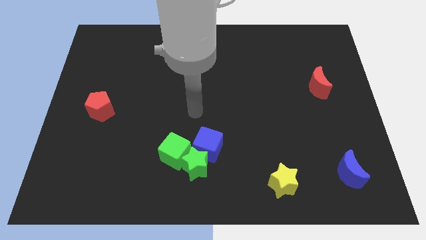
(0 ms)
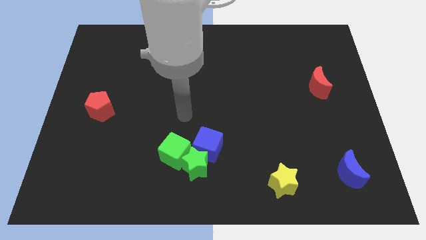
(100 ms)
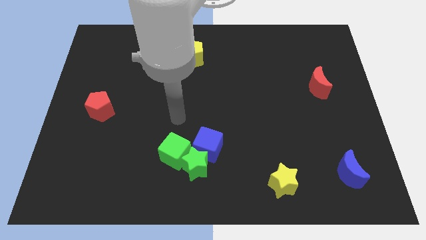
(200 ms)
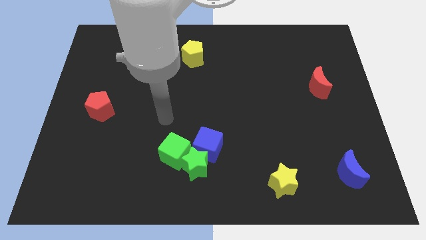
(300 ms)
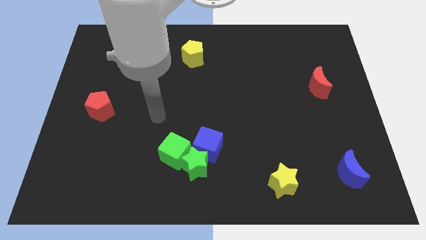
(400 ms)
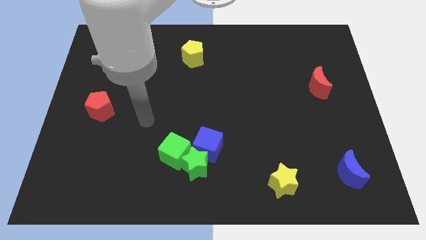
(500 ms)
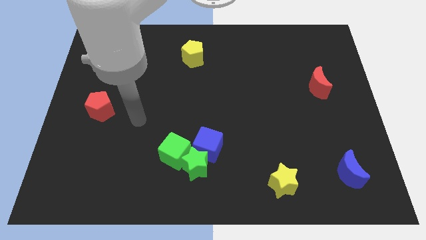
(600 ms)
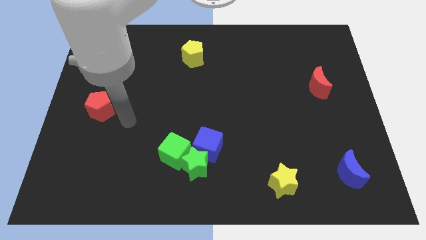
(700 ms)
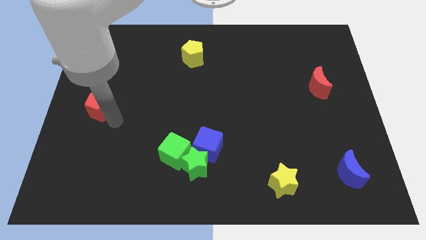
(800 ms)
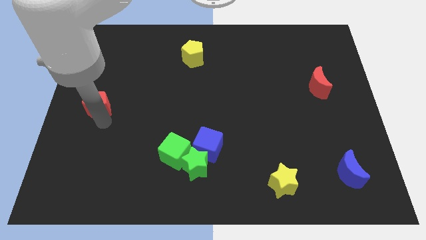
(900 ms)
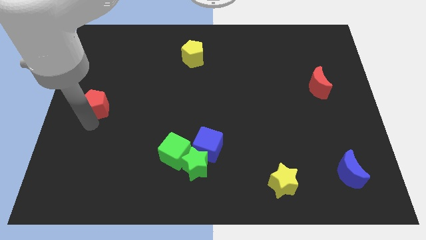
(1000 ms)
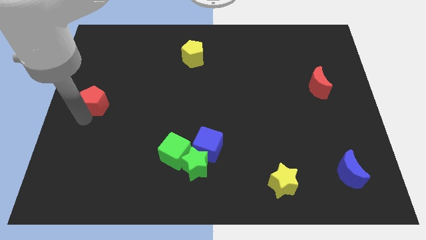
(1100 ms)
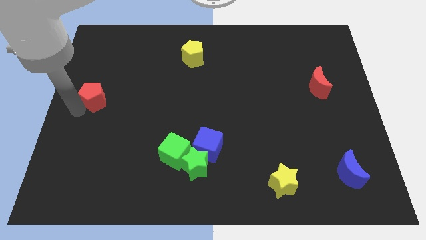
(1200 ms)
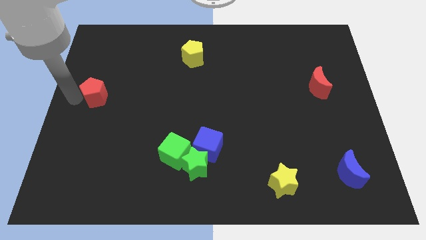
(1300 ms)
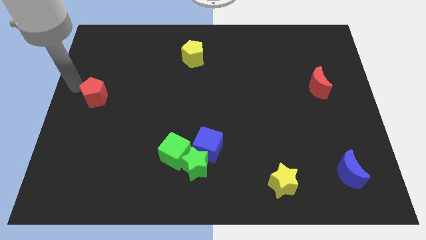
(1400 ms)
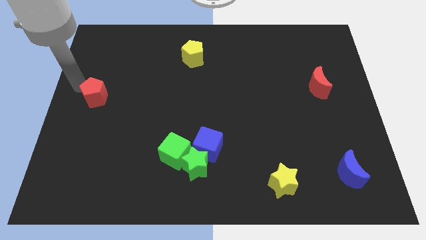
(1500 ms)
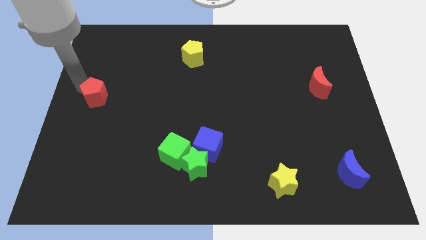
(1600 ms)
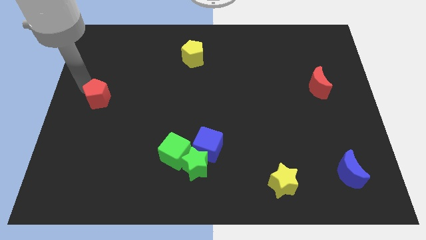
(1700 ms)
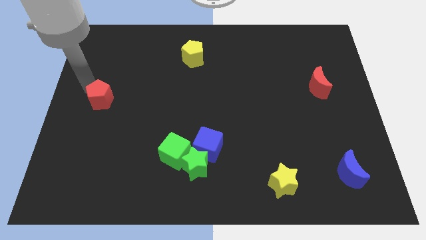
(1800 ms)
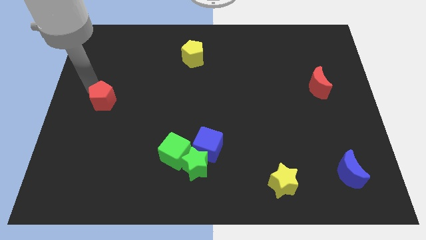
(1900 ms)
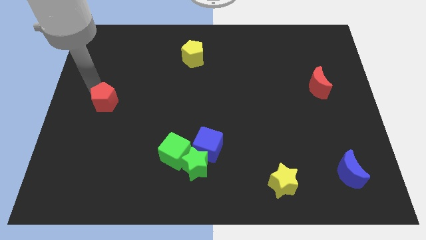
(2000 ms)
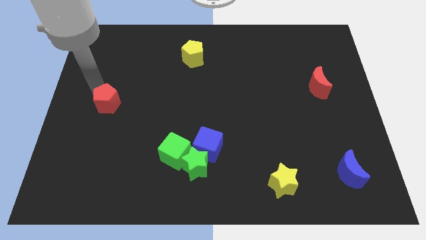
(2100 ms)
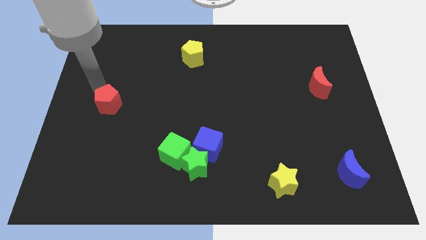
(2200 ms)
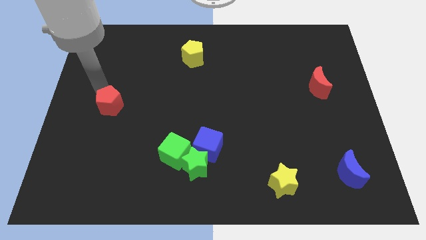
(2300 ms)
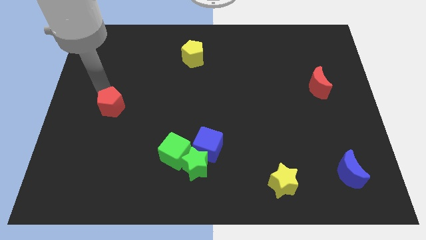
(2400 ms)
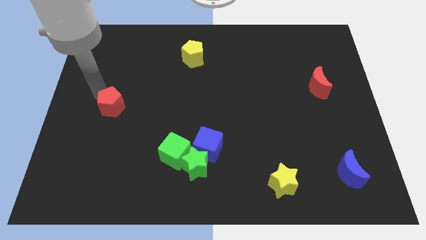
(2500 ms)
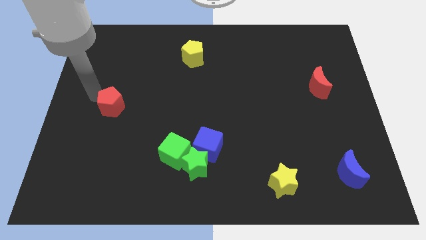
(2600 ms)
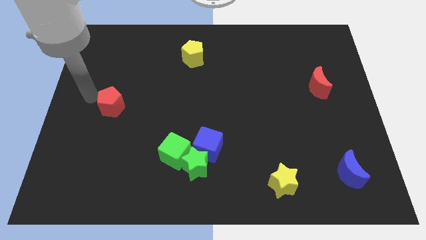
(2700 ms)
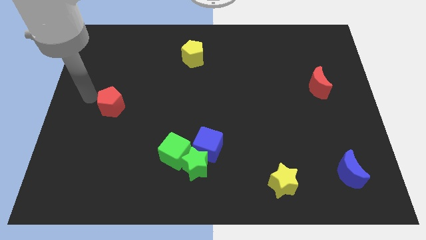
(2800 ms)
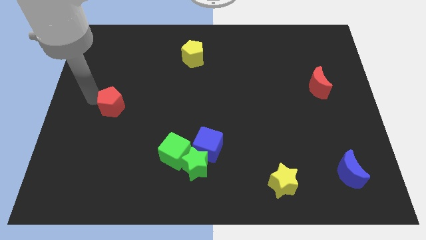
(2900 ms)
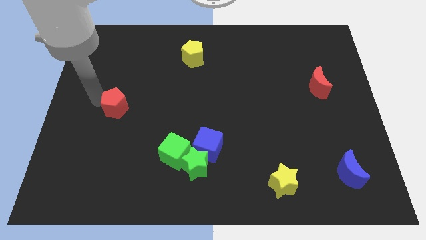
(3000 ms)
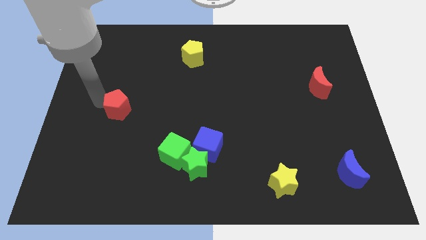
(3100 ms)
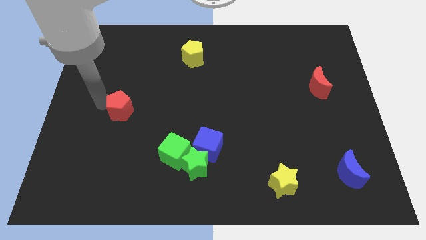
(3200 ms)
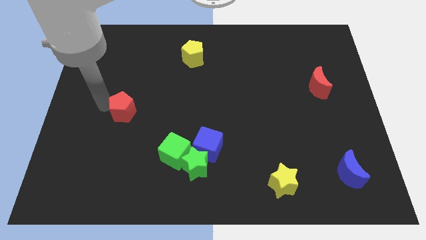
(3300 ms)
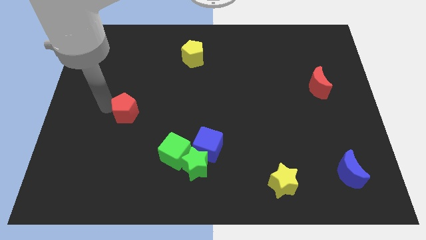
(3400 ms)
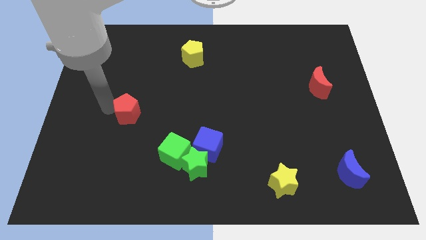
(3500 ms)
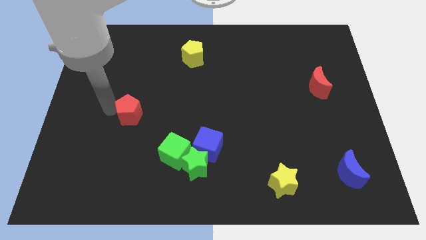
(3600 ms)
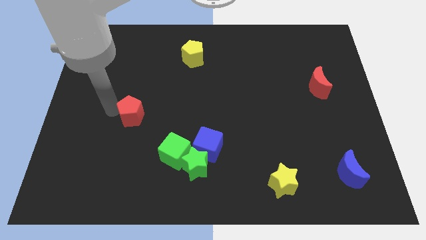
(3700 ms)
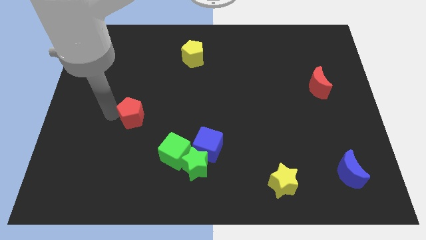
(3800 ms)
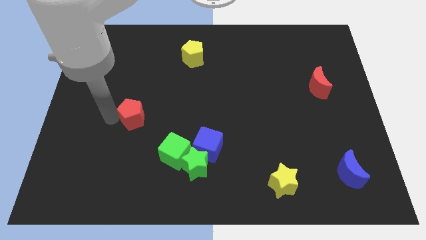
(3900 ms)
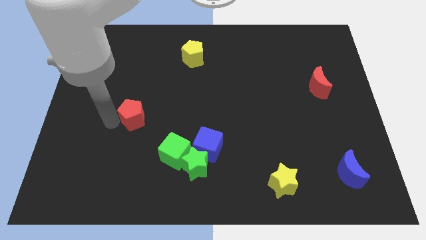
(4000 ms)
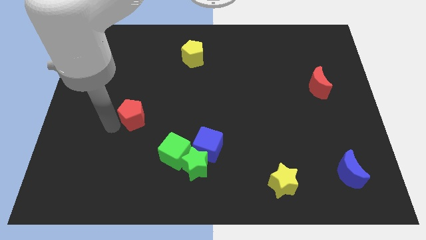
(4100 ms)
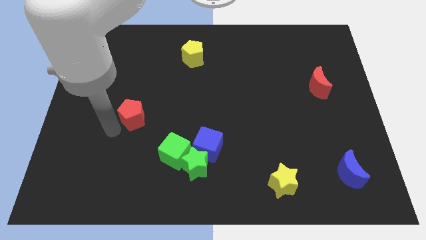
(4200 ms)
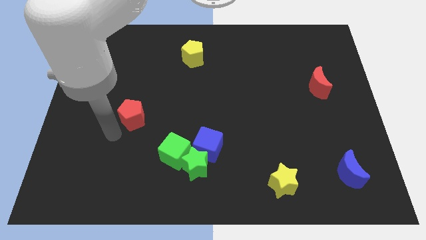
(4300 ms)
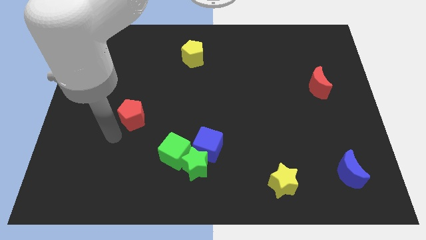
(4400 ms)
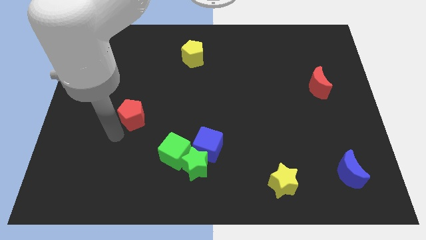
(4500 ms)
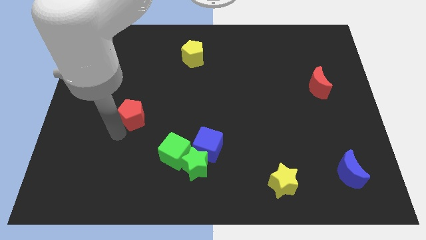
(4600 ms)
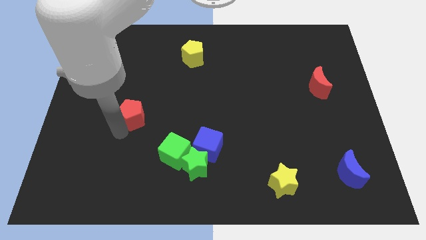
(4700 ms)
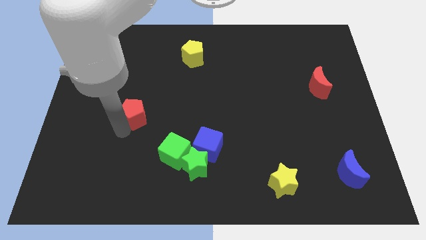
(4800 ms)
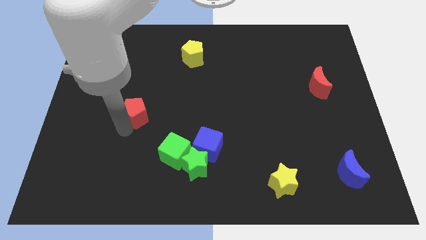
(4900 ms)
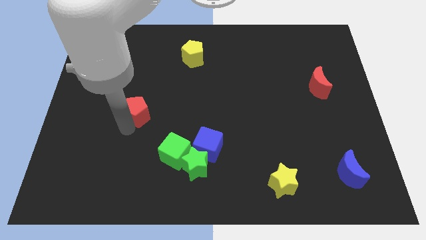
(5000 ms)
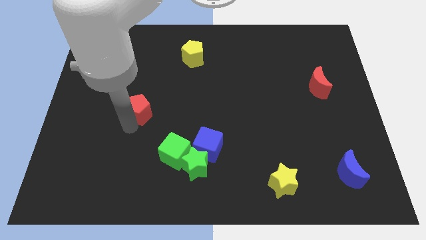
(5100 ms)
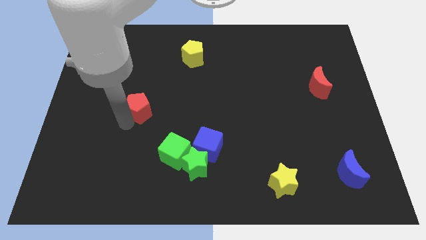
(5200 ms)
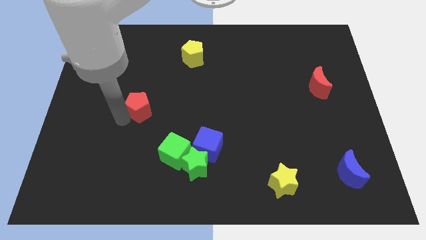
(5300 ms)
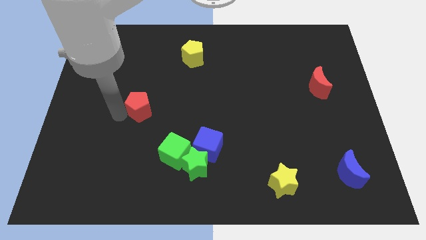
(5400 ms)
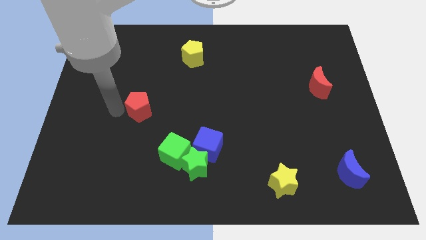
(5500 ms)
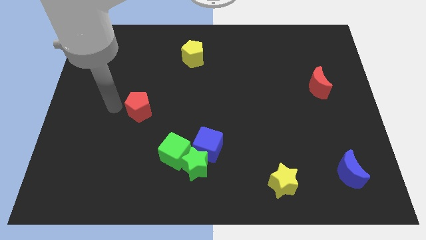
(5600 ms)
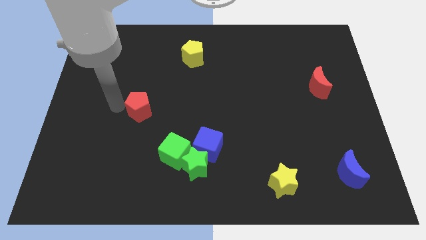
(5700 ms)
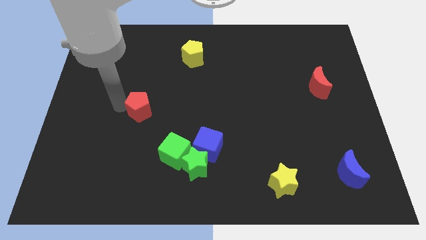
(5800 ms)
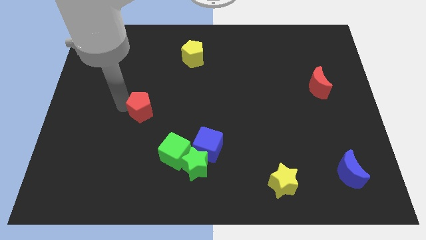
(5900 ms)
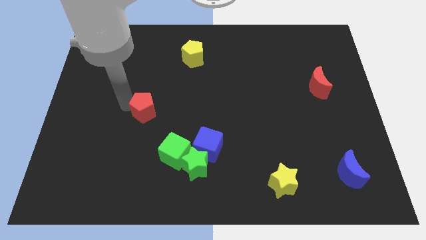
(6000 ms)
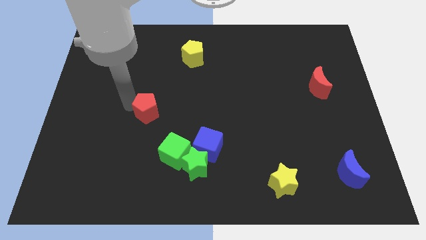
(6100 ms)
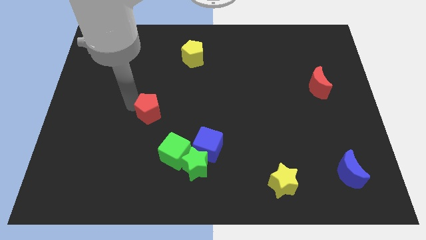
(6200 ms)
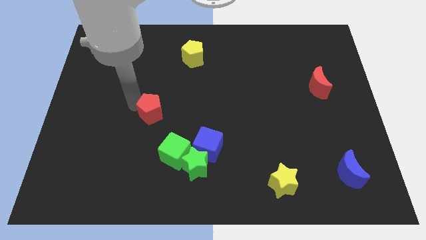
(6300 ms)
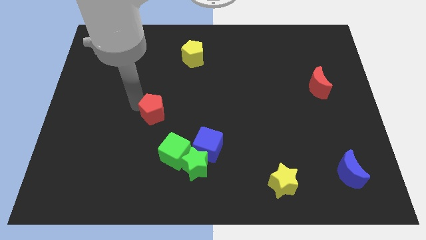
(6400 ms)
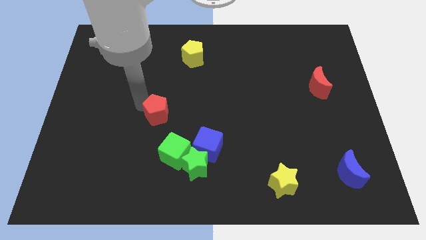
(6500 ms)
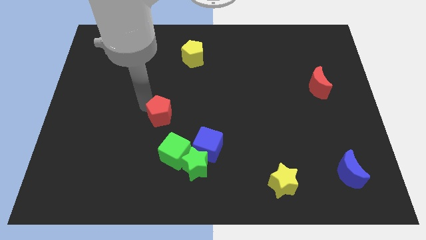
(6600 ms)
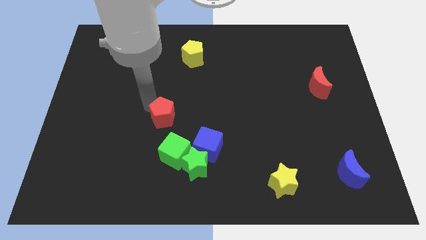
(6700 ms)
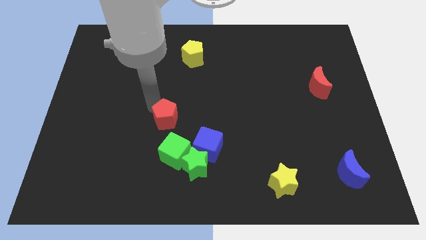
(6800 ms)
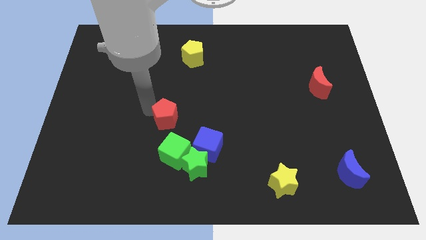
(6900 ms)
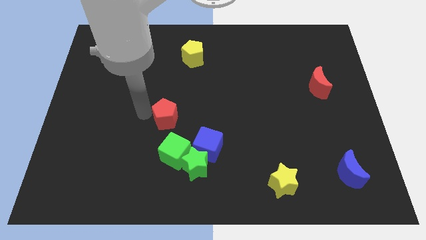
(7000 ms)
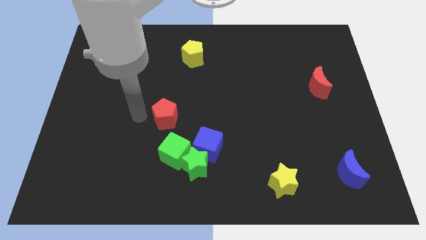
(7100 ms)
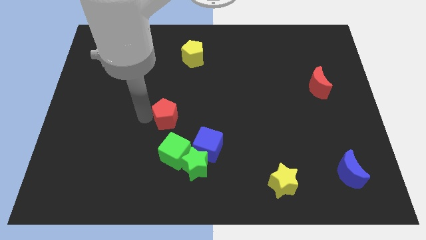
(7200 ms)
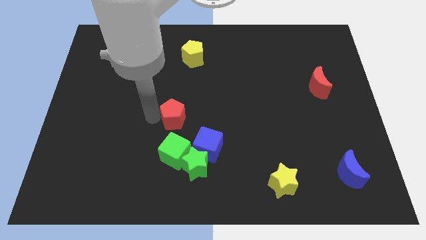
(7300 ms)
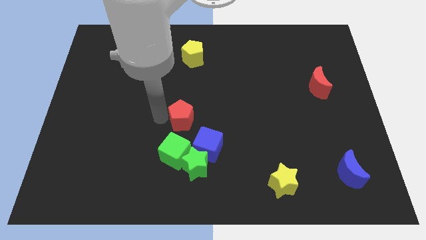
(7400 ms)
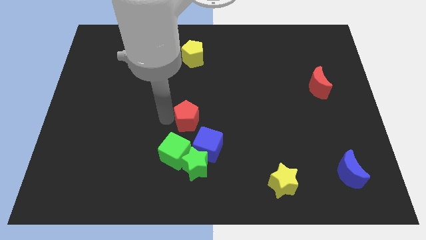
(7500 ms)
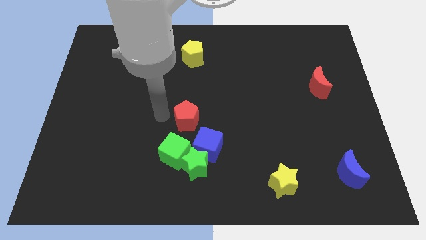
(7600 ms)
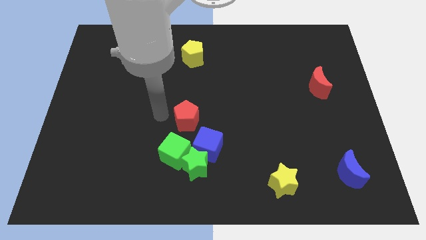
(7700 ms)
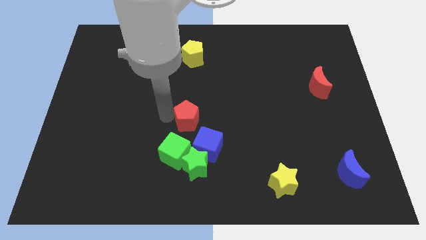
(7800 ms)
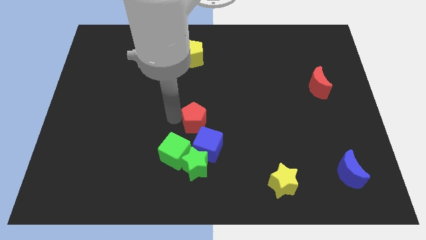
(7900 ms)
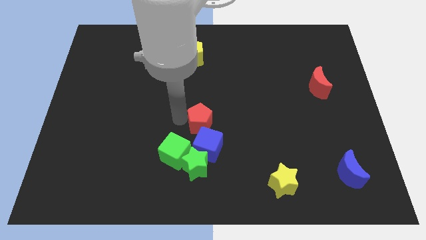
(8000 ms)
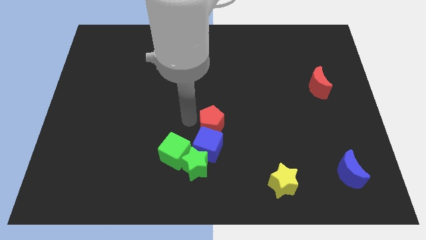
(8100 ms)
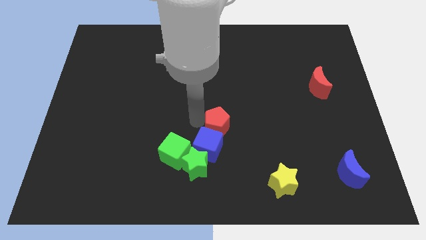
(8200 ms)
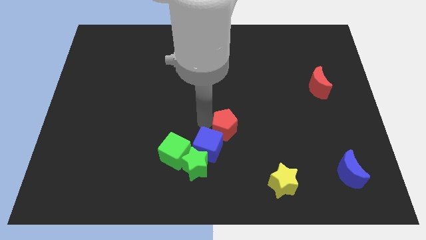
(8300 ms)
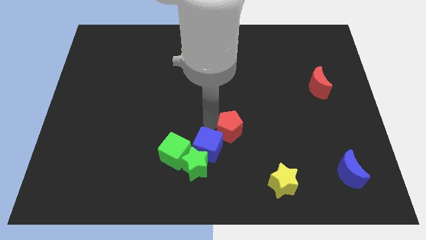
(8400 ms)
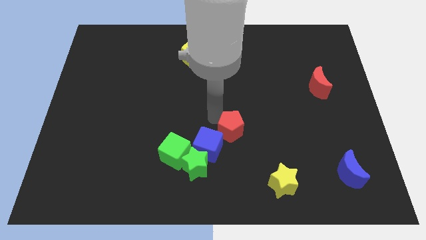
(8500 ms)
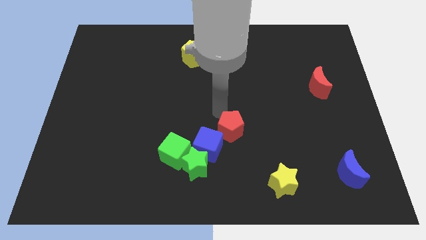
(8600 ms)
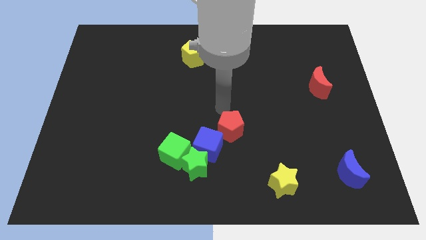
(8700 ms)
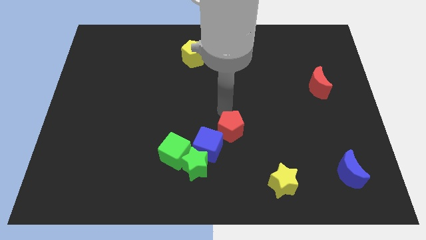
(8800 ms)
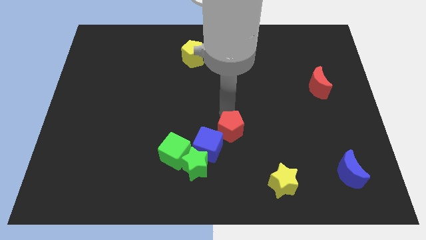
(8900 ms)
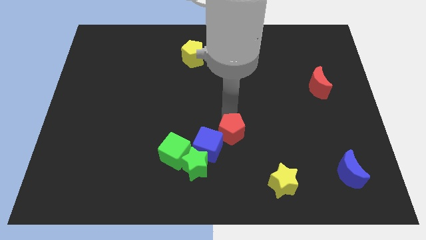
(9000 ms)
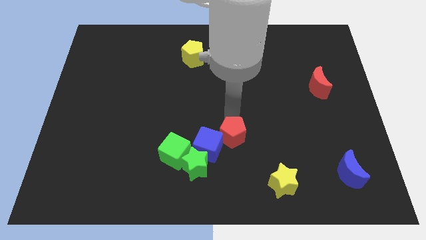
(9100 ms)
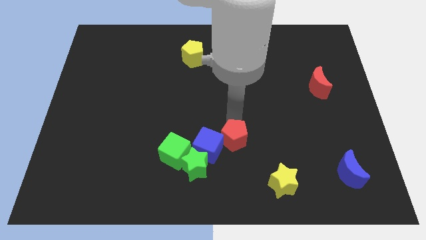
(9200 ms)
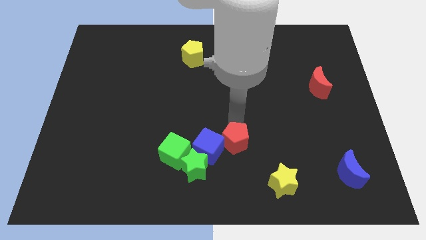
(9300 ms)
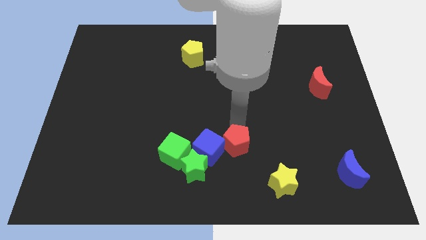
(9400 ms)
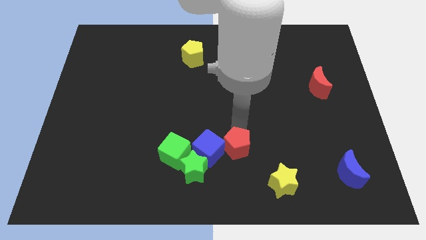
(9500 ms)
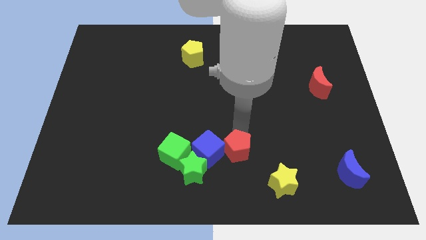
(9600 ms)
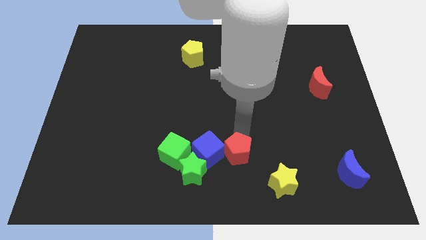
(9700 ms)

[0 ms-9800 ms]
push the red pentagon to the right of the green star
